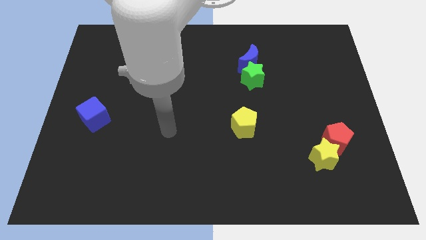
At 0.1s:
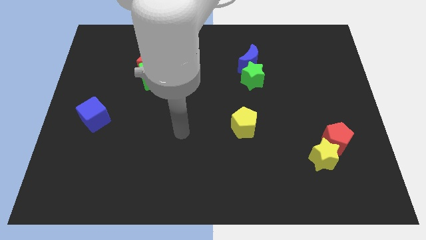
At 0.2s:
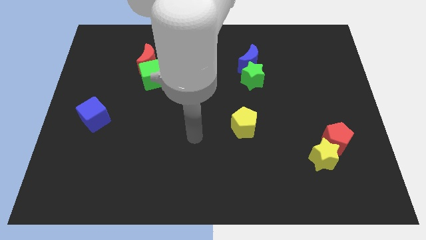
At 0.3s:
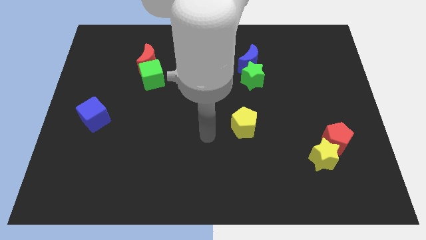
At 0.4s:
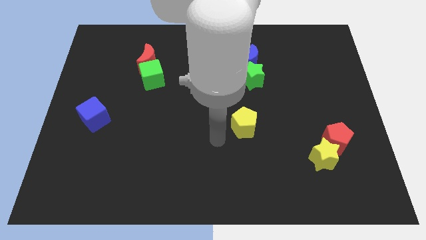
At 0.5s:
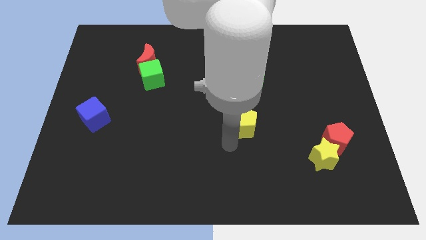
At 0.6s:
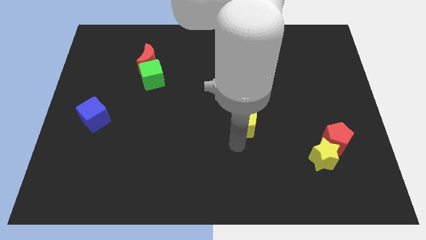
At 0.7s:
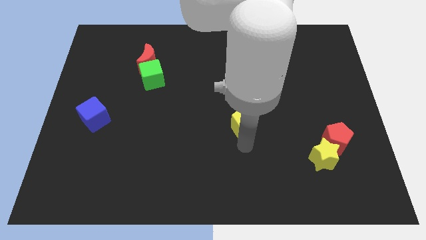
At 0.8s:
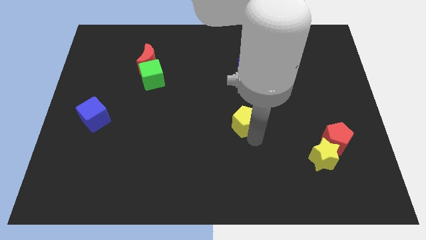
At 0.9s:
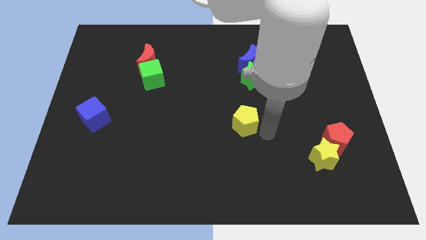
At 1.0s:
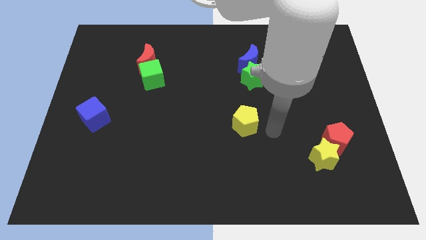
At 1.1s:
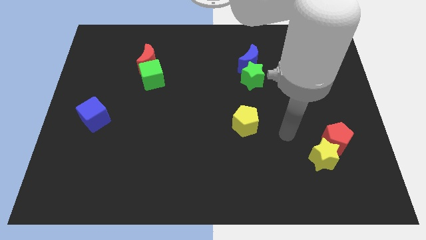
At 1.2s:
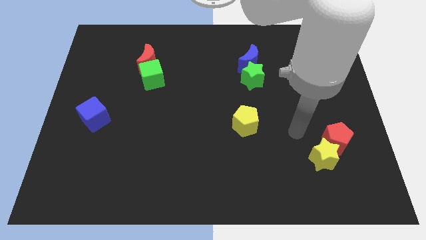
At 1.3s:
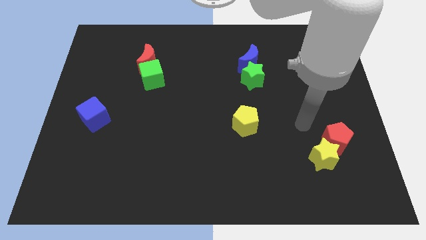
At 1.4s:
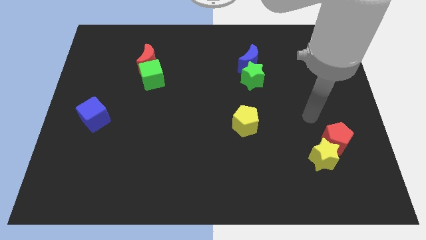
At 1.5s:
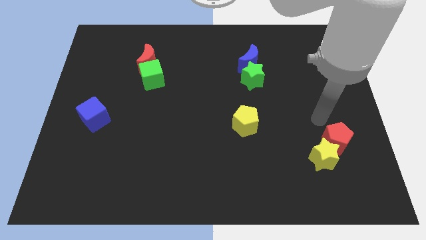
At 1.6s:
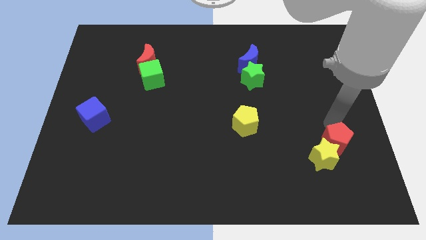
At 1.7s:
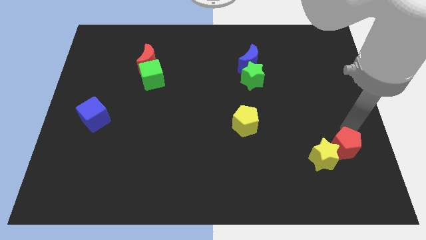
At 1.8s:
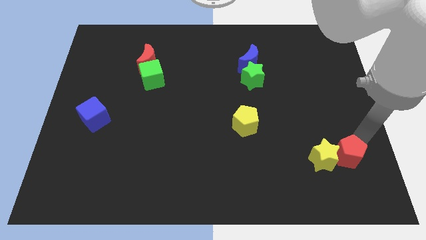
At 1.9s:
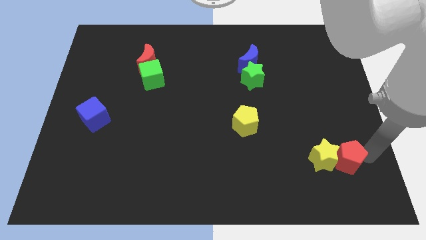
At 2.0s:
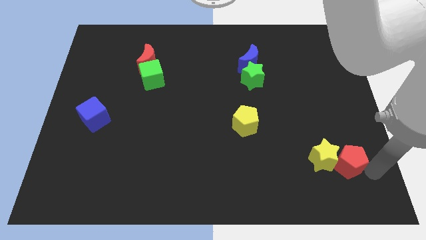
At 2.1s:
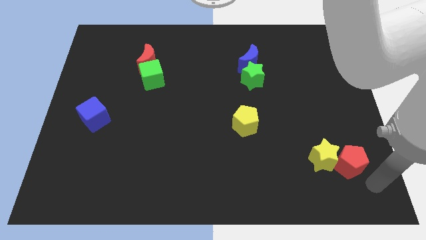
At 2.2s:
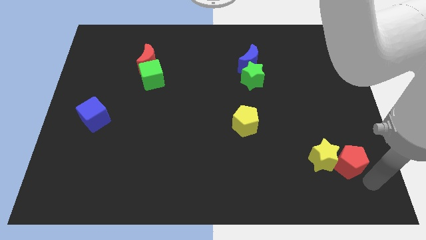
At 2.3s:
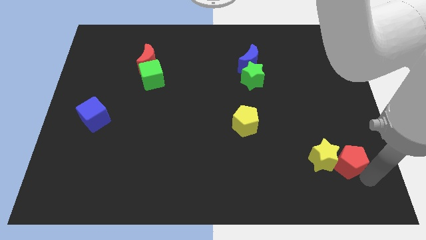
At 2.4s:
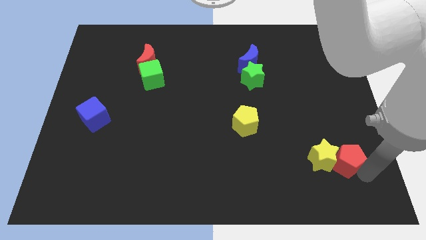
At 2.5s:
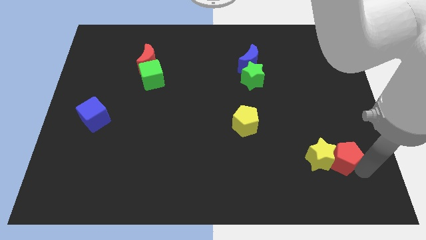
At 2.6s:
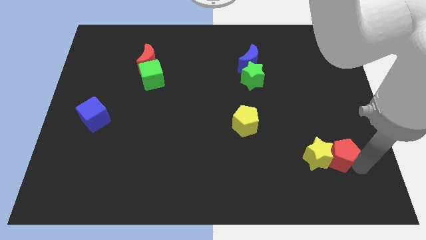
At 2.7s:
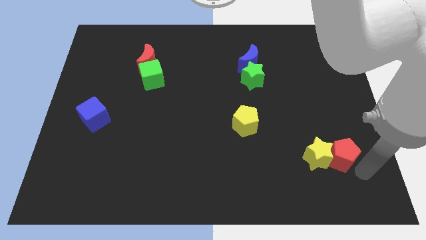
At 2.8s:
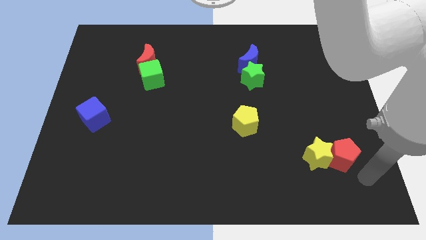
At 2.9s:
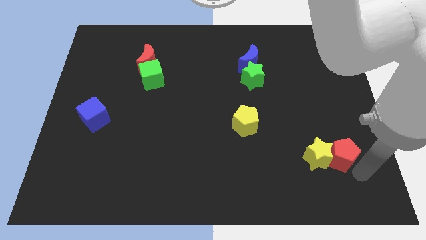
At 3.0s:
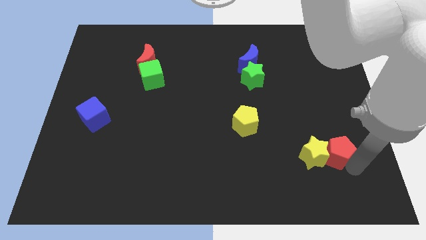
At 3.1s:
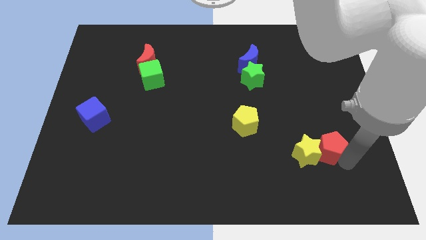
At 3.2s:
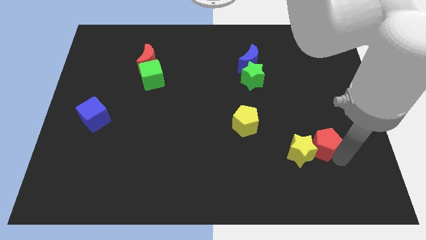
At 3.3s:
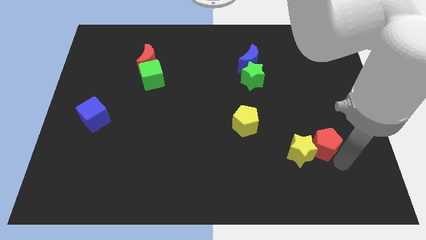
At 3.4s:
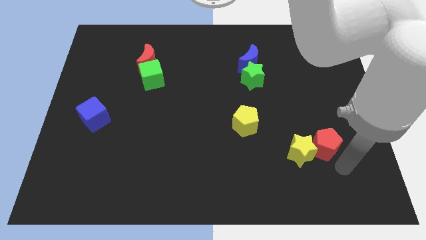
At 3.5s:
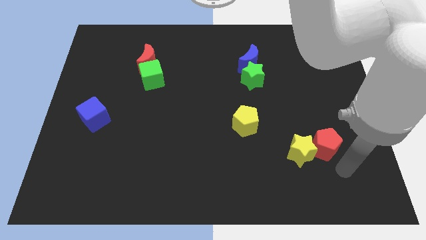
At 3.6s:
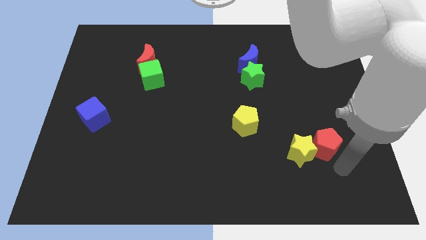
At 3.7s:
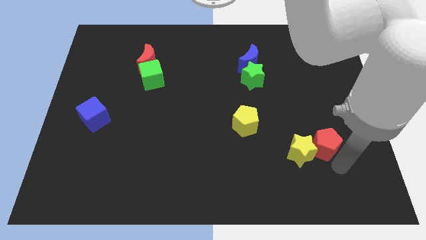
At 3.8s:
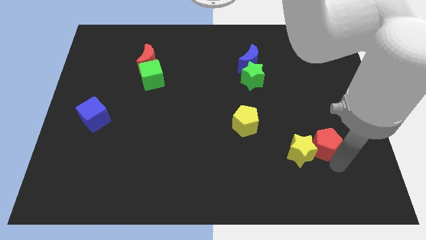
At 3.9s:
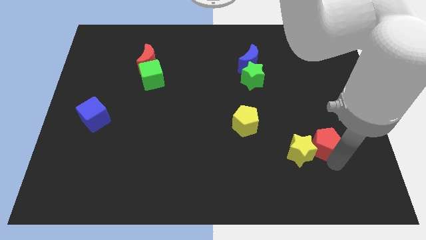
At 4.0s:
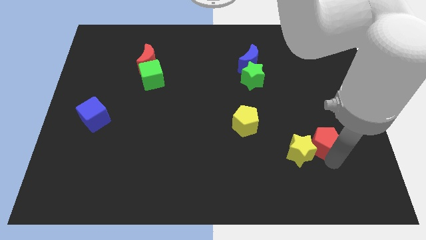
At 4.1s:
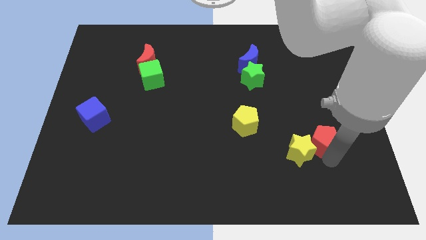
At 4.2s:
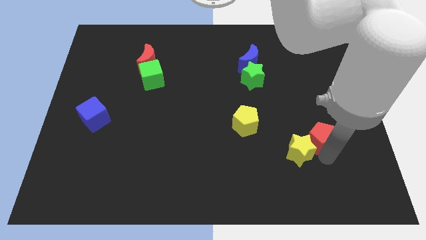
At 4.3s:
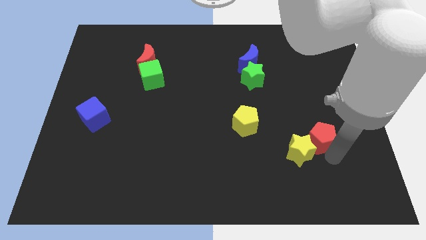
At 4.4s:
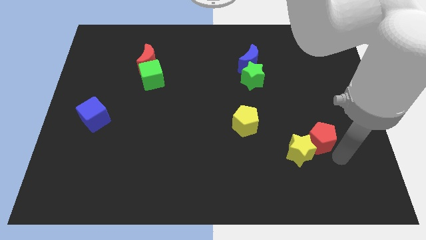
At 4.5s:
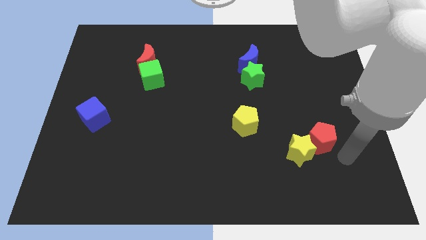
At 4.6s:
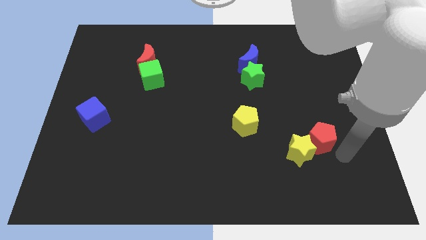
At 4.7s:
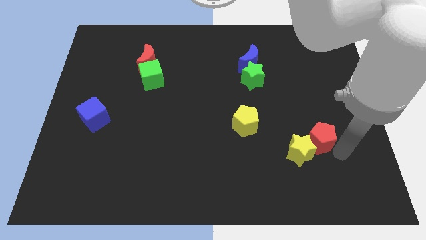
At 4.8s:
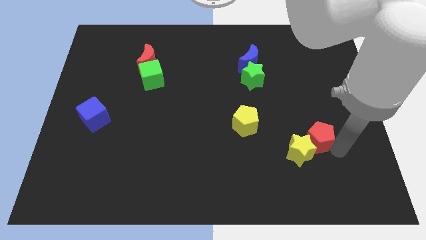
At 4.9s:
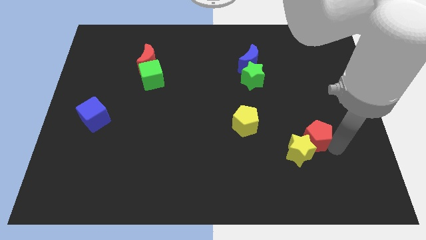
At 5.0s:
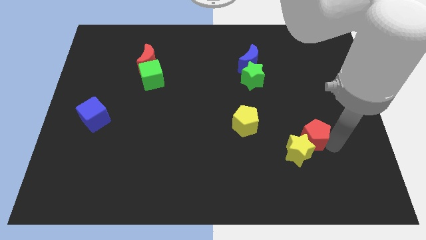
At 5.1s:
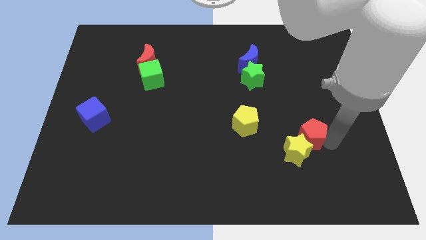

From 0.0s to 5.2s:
slide the red pentagon right of the yellow pentagon

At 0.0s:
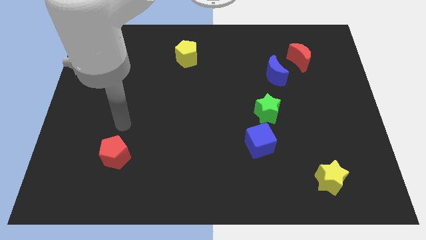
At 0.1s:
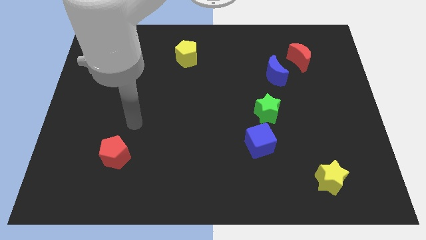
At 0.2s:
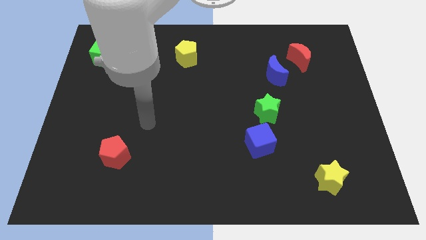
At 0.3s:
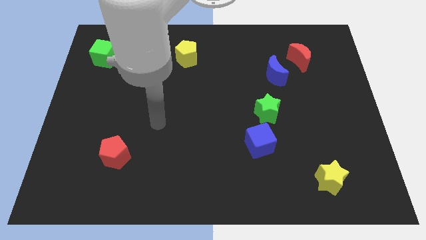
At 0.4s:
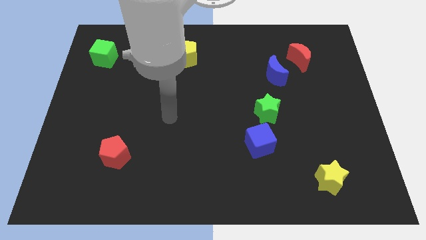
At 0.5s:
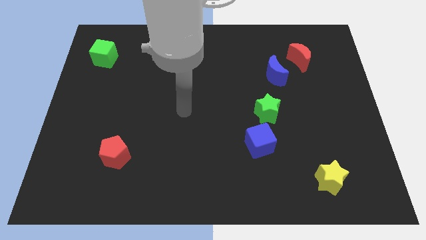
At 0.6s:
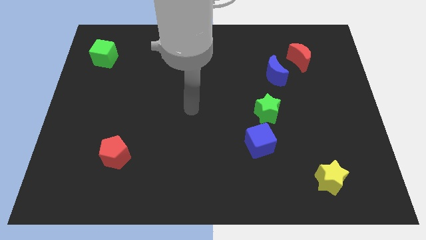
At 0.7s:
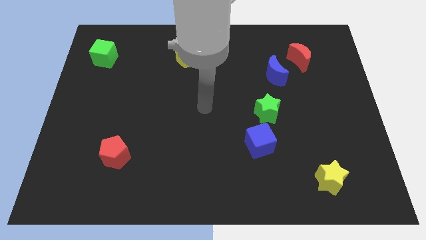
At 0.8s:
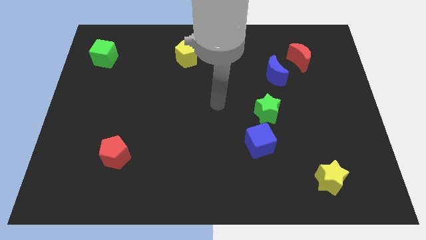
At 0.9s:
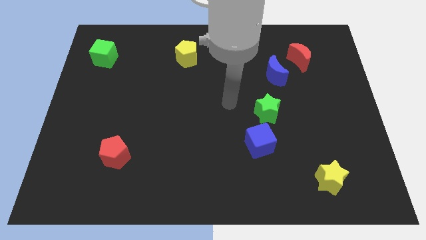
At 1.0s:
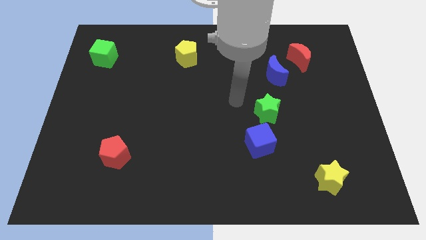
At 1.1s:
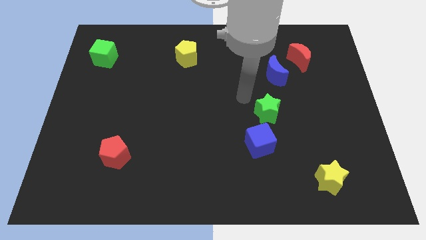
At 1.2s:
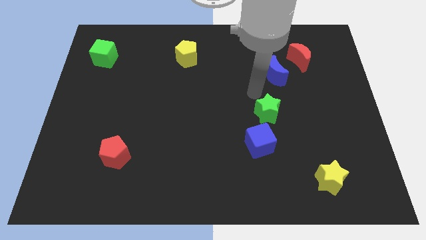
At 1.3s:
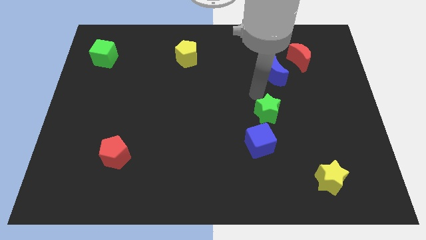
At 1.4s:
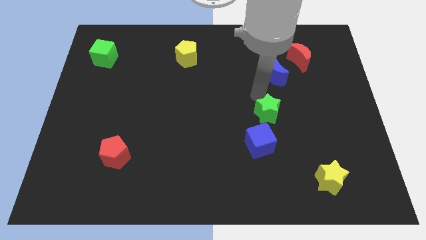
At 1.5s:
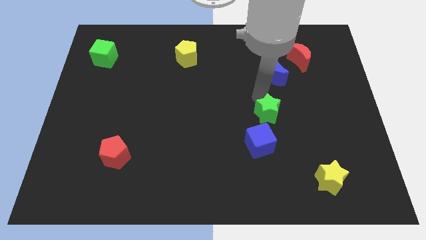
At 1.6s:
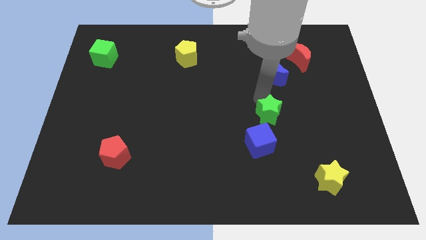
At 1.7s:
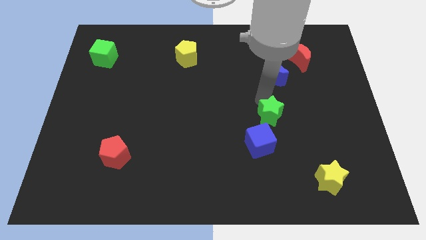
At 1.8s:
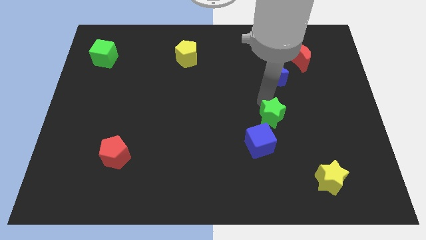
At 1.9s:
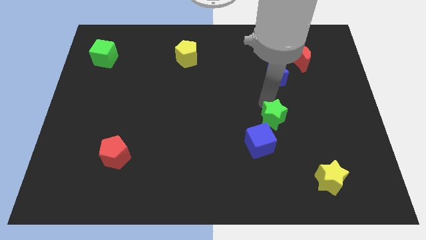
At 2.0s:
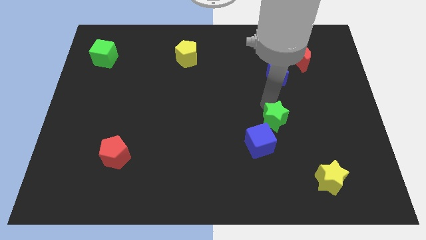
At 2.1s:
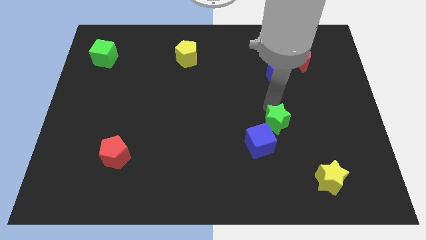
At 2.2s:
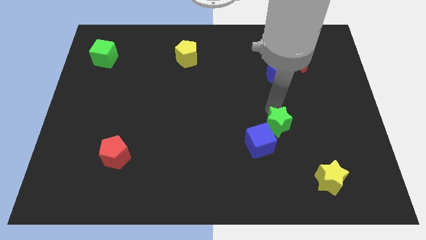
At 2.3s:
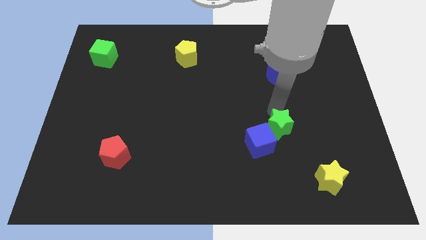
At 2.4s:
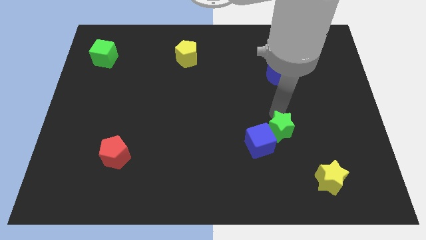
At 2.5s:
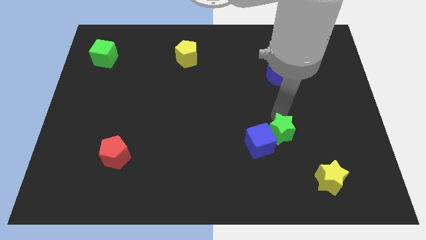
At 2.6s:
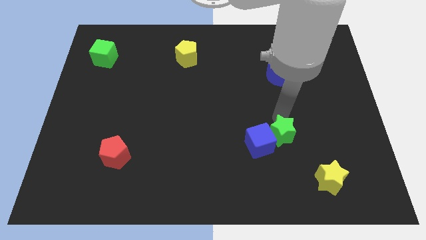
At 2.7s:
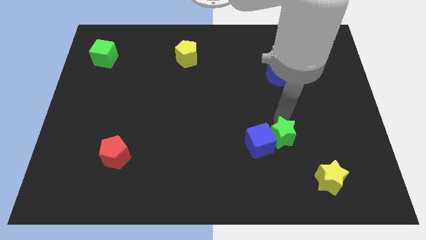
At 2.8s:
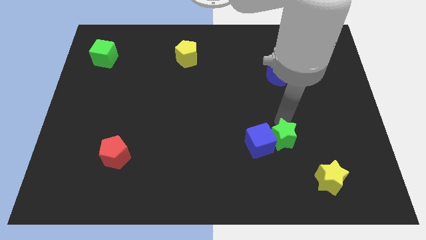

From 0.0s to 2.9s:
slide the green star diagonally down and to the right of the blue cube
